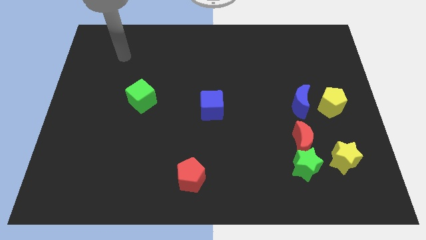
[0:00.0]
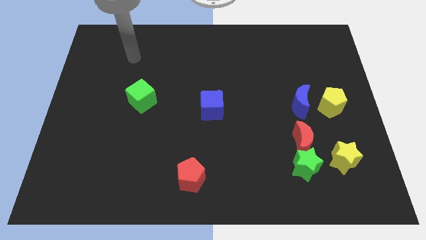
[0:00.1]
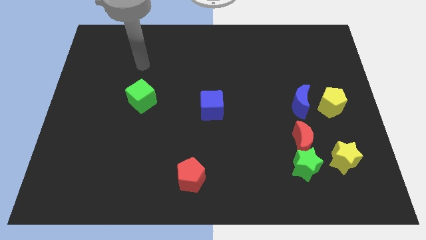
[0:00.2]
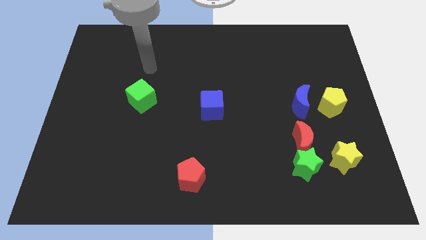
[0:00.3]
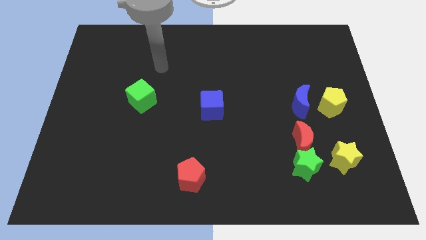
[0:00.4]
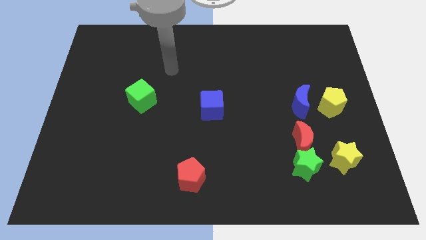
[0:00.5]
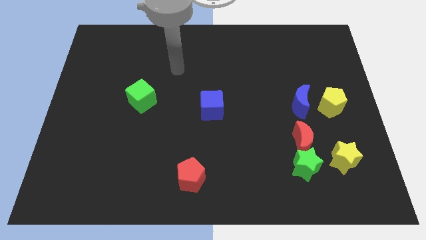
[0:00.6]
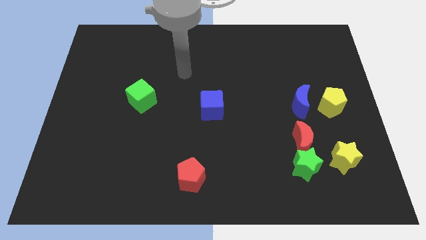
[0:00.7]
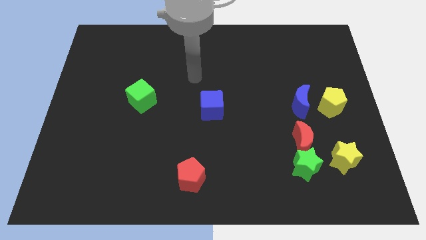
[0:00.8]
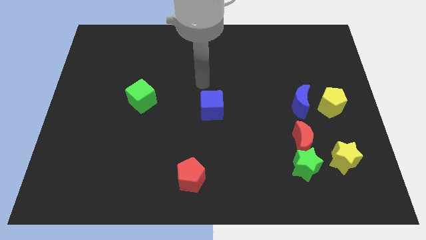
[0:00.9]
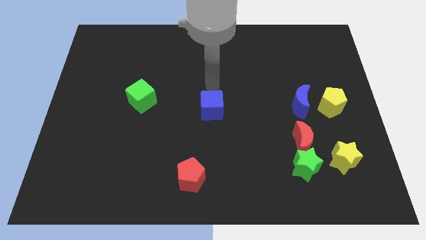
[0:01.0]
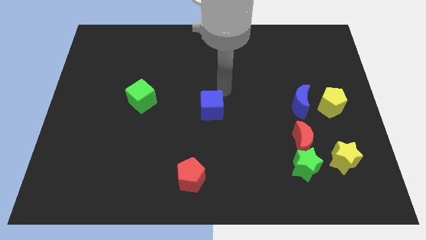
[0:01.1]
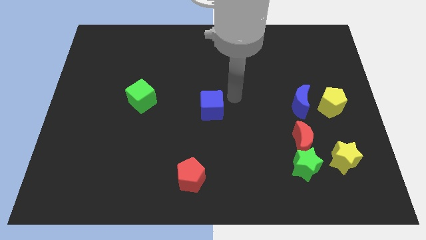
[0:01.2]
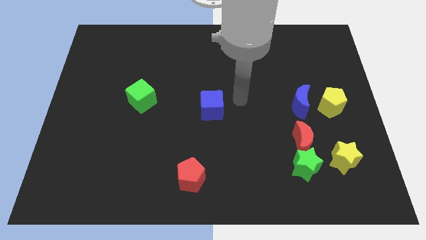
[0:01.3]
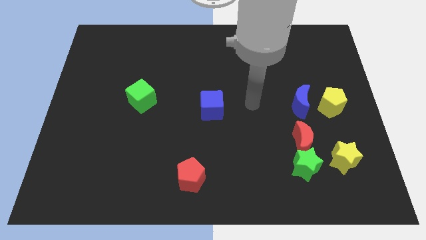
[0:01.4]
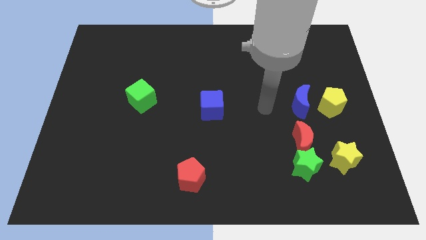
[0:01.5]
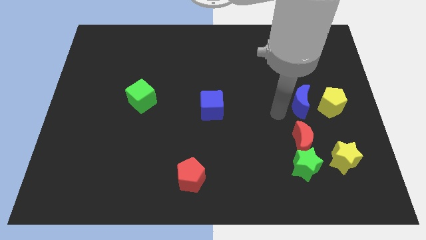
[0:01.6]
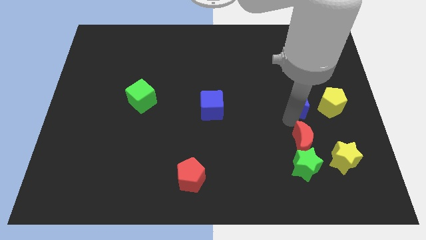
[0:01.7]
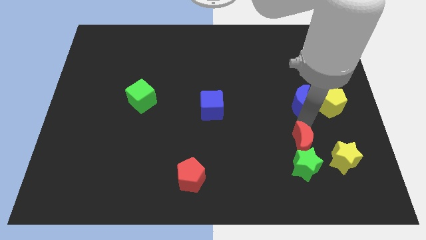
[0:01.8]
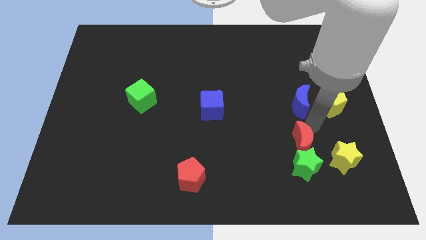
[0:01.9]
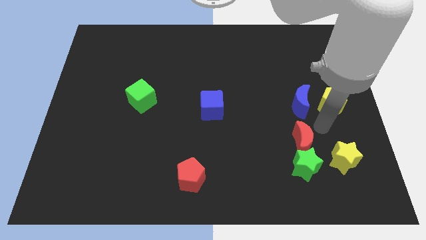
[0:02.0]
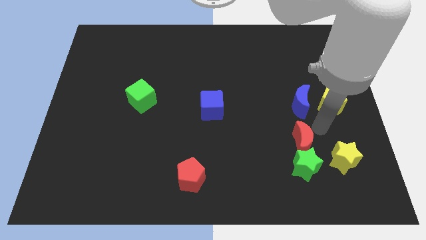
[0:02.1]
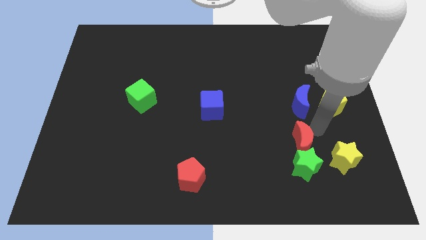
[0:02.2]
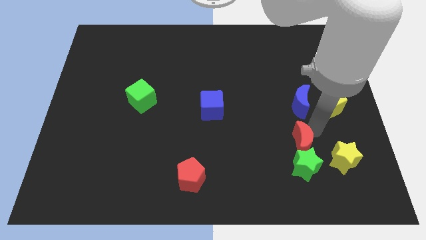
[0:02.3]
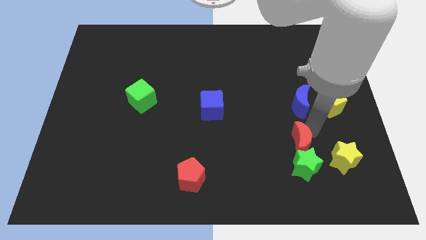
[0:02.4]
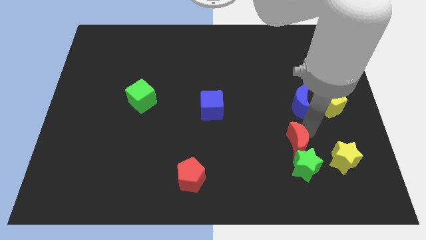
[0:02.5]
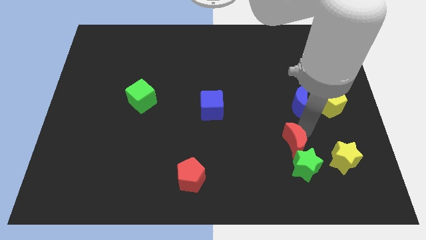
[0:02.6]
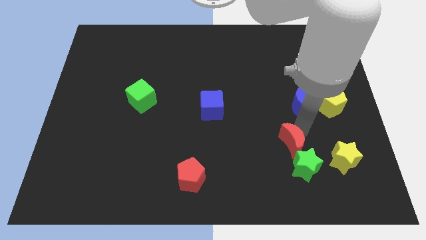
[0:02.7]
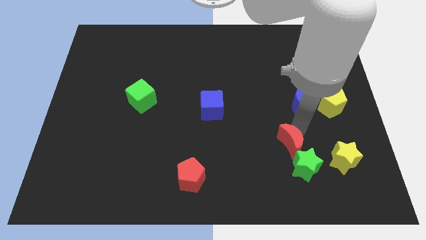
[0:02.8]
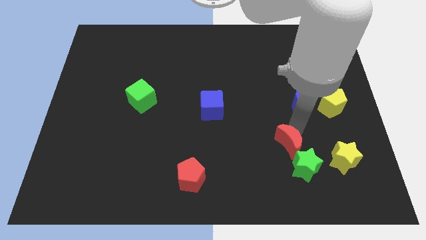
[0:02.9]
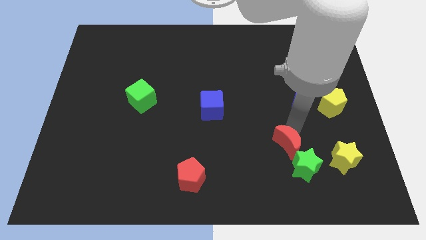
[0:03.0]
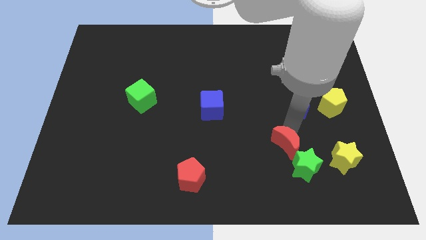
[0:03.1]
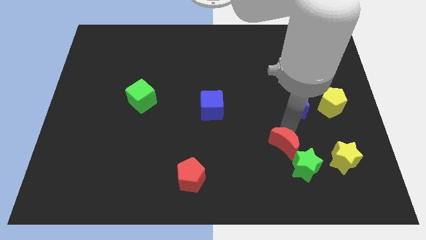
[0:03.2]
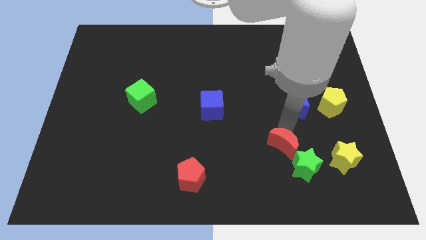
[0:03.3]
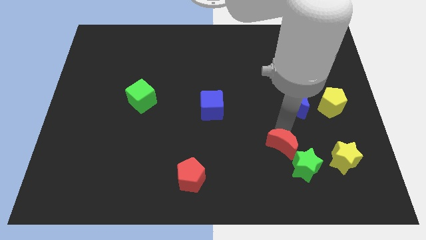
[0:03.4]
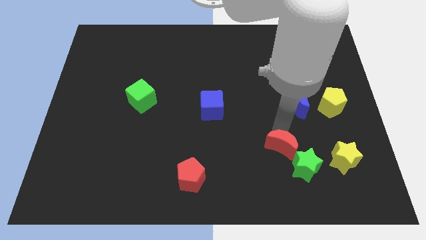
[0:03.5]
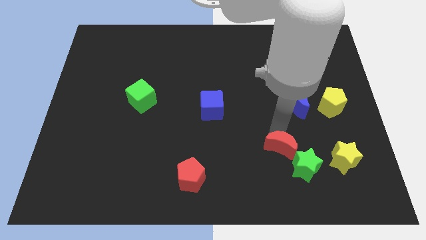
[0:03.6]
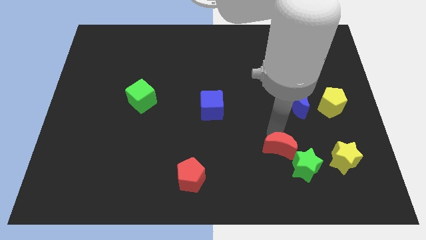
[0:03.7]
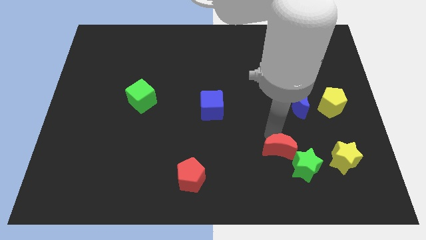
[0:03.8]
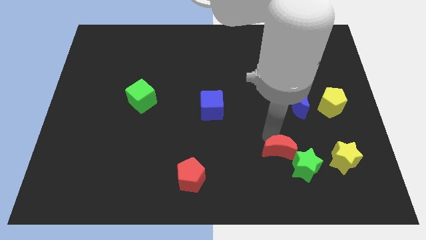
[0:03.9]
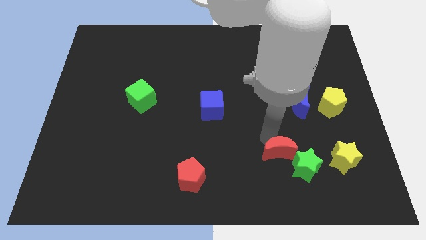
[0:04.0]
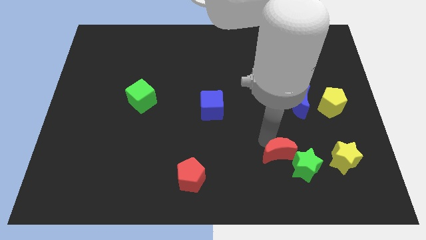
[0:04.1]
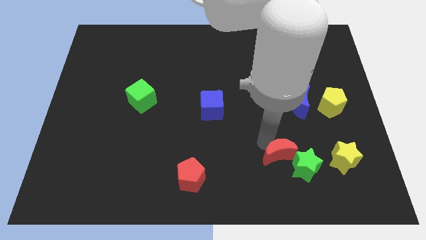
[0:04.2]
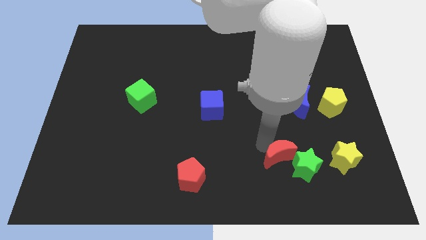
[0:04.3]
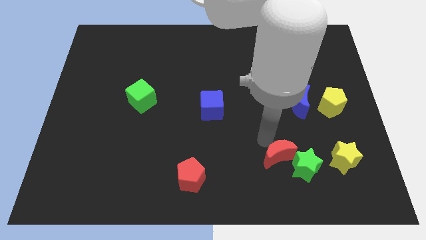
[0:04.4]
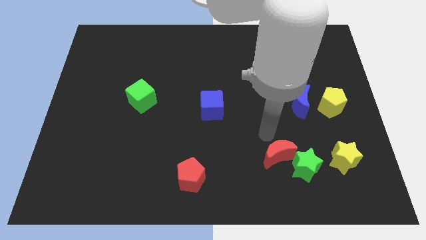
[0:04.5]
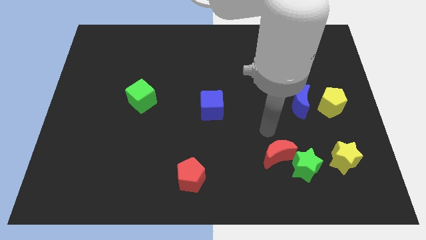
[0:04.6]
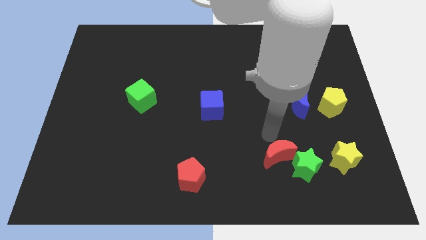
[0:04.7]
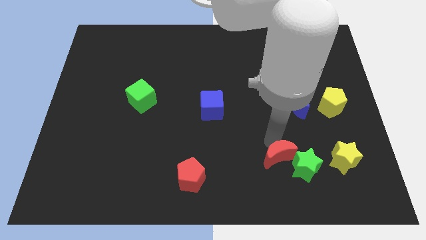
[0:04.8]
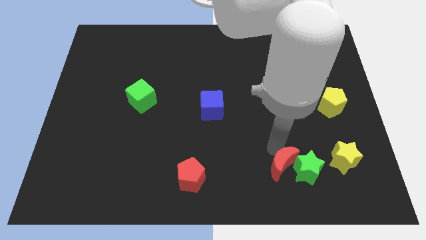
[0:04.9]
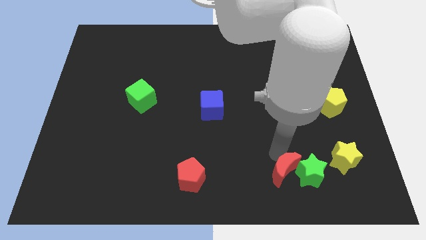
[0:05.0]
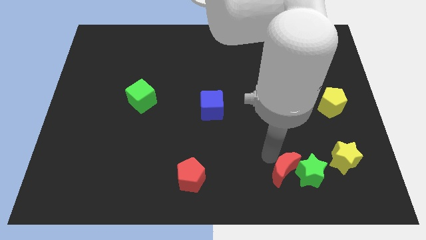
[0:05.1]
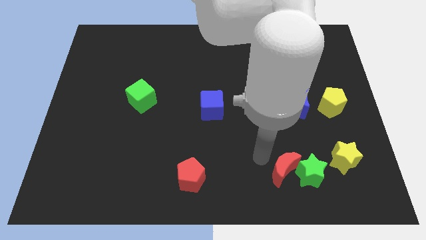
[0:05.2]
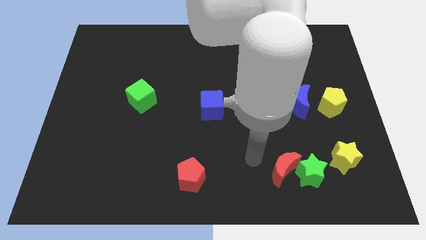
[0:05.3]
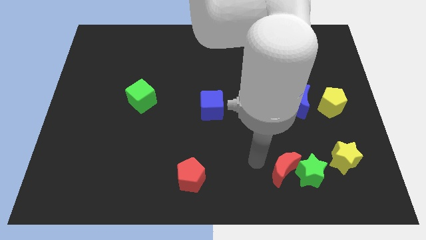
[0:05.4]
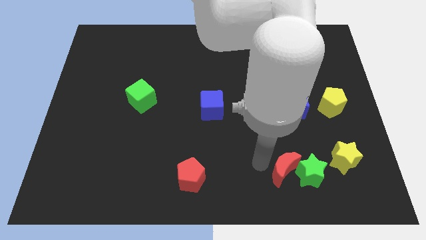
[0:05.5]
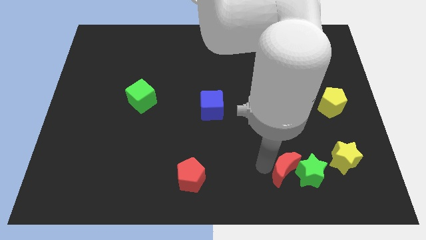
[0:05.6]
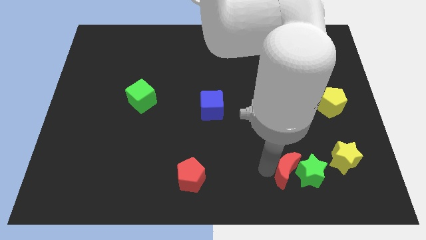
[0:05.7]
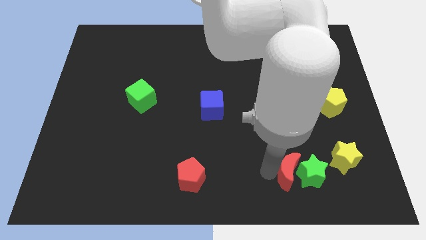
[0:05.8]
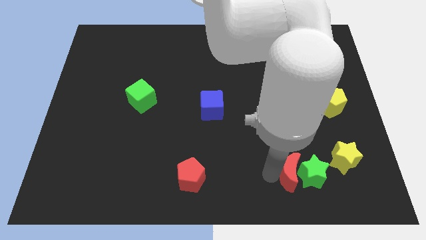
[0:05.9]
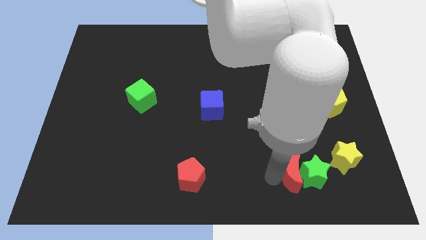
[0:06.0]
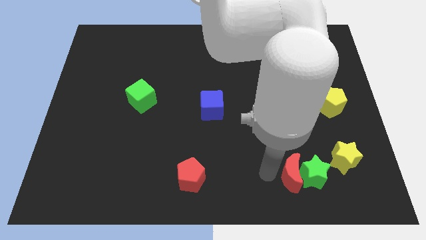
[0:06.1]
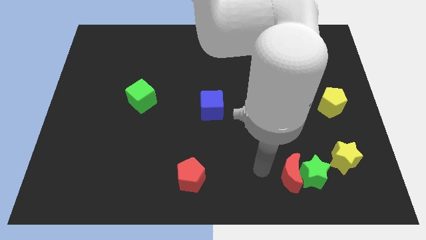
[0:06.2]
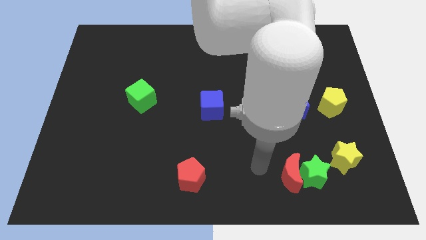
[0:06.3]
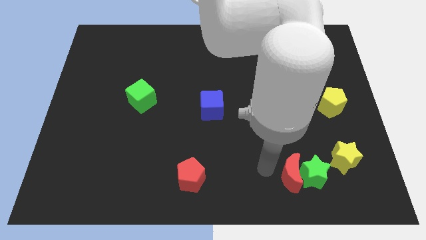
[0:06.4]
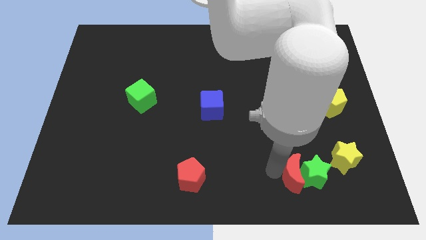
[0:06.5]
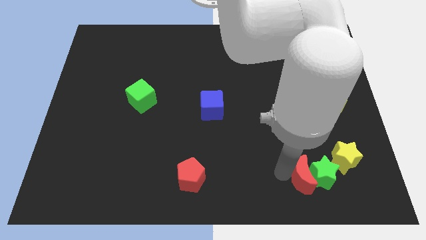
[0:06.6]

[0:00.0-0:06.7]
push the red moon to the bottom left of the yellow star

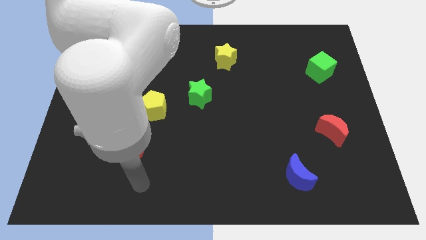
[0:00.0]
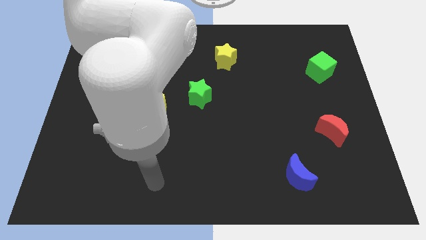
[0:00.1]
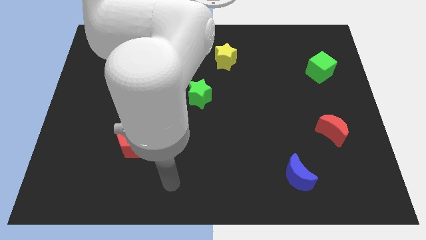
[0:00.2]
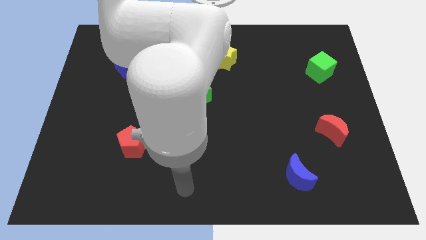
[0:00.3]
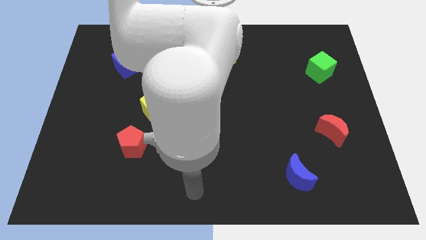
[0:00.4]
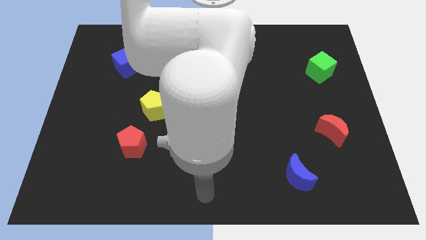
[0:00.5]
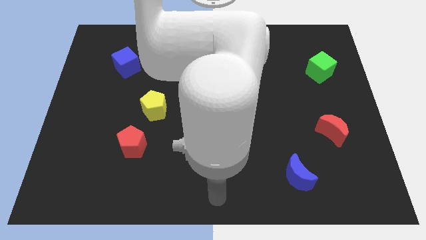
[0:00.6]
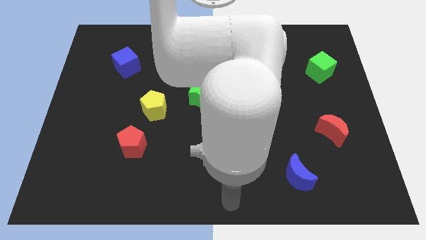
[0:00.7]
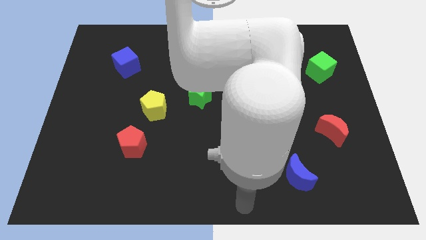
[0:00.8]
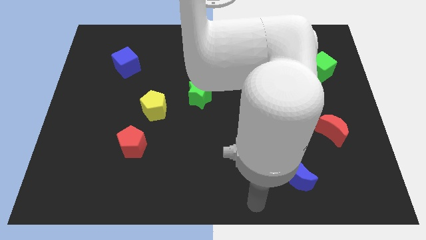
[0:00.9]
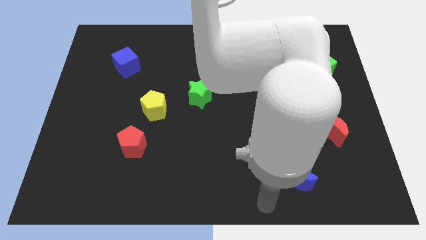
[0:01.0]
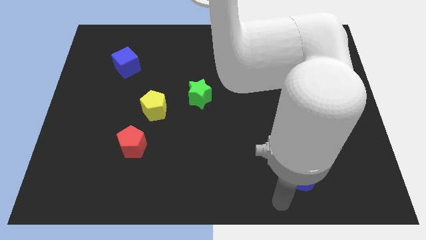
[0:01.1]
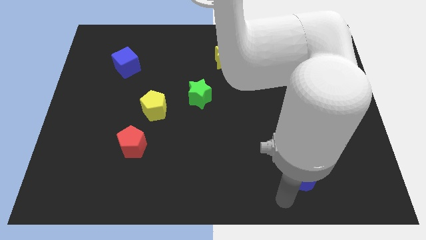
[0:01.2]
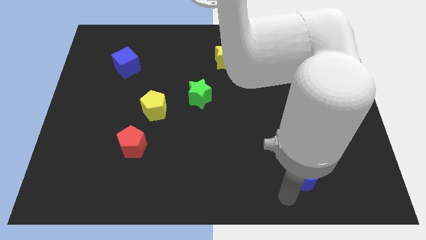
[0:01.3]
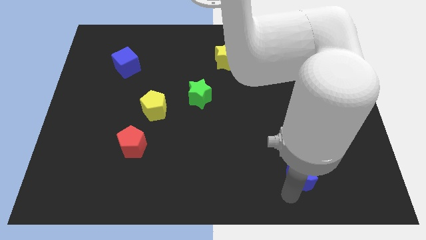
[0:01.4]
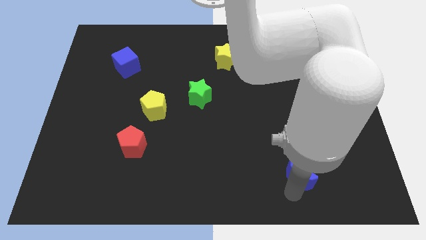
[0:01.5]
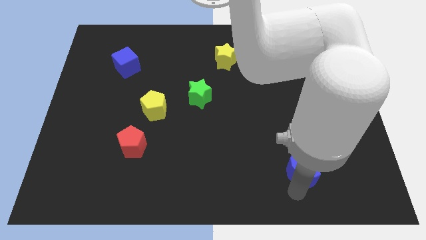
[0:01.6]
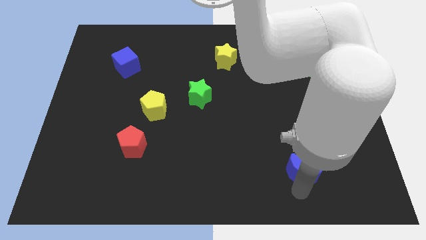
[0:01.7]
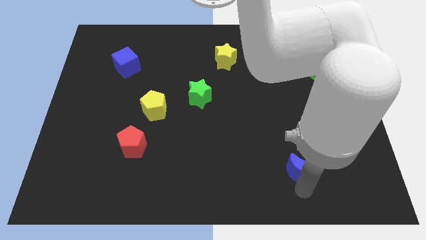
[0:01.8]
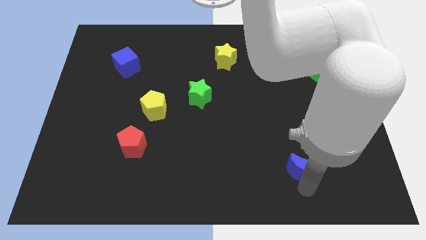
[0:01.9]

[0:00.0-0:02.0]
push the blue moon to the bottom left side of the red moon
